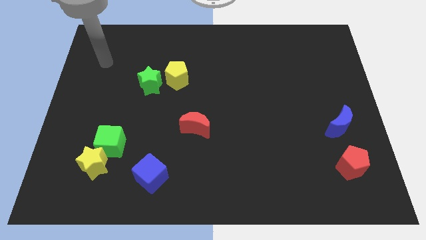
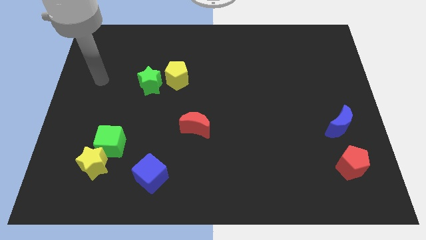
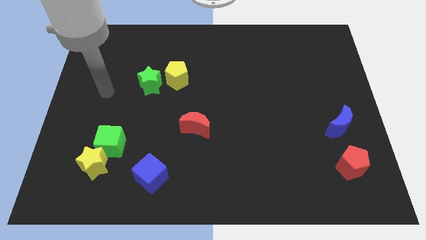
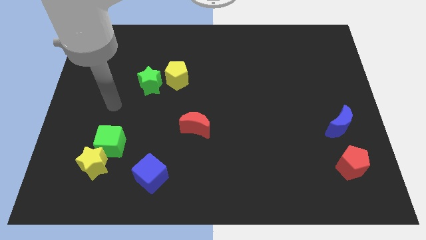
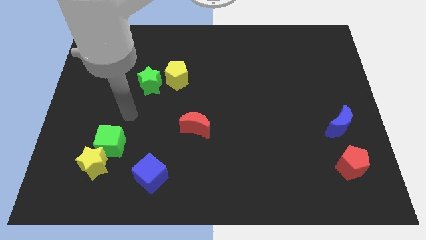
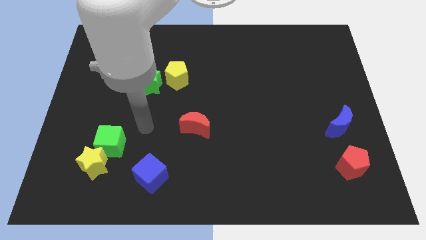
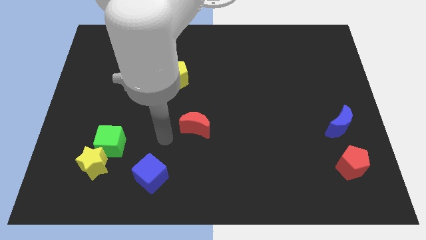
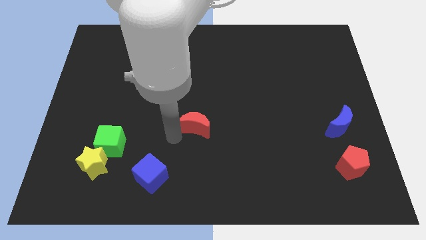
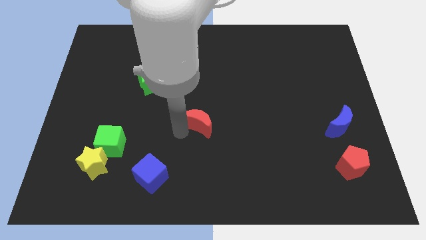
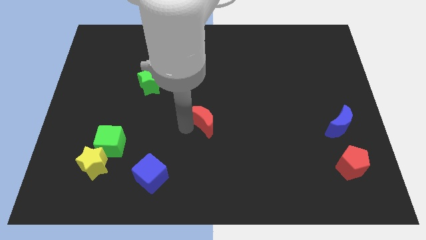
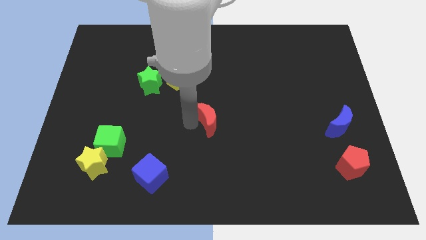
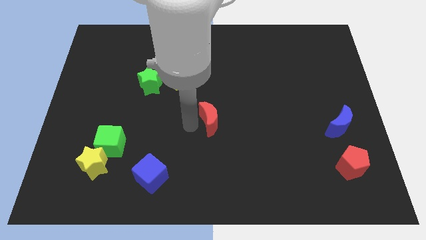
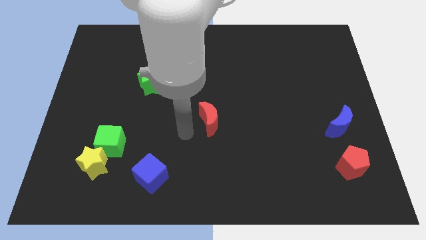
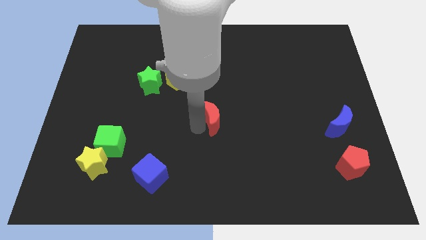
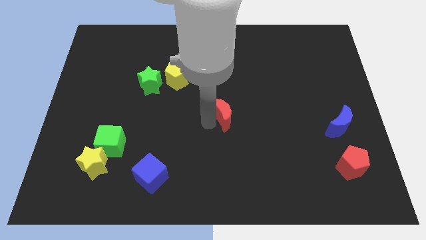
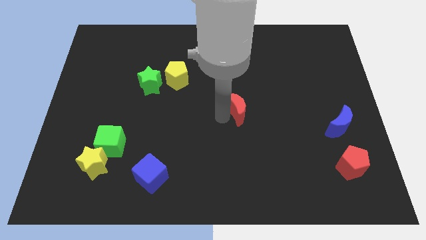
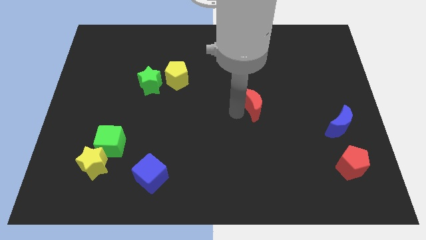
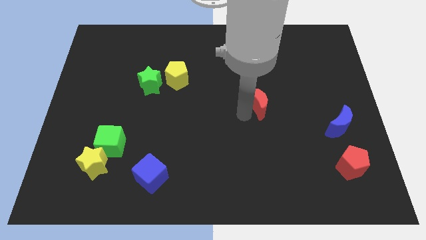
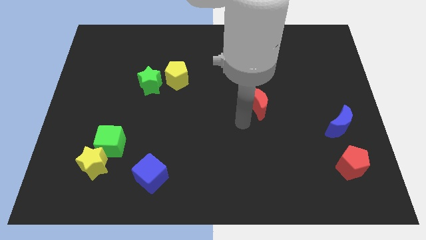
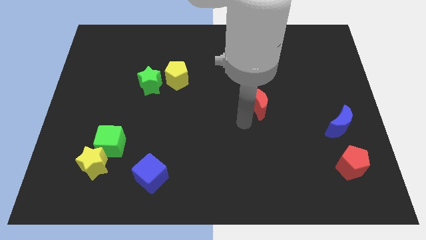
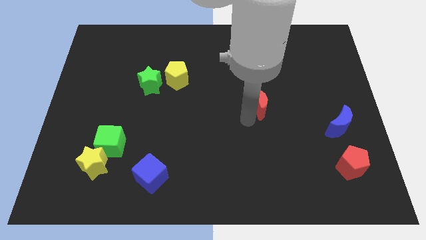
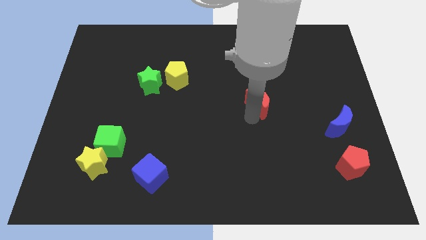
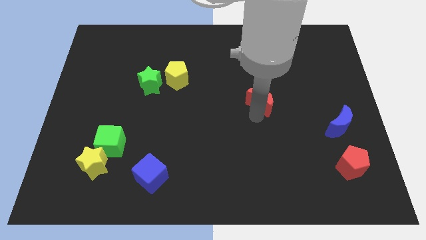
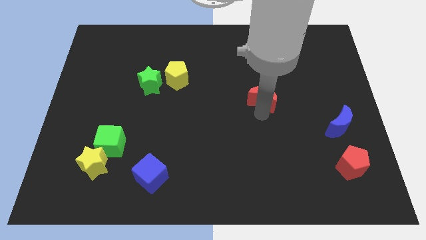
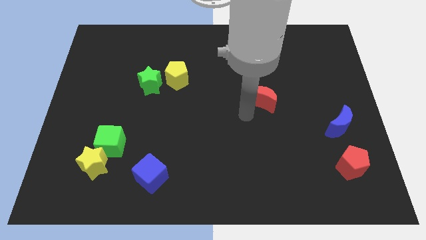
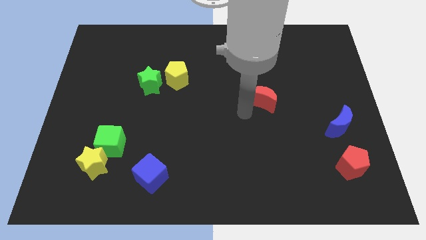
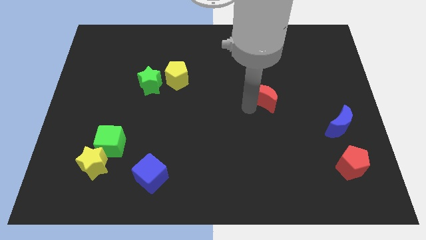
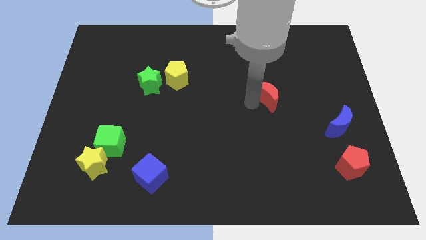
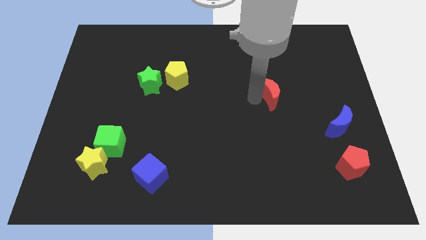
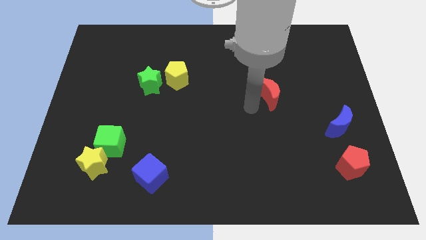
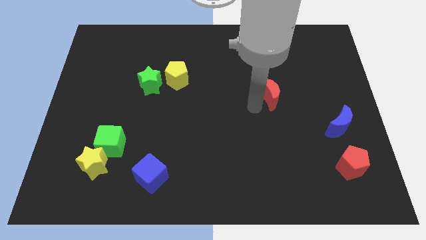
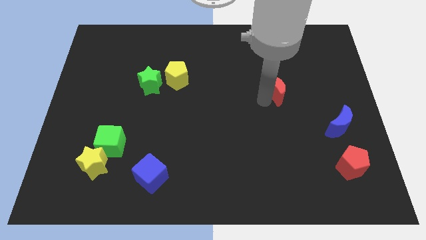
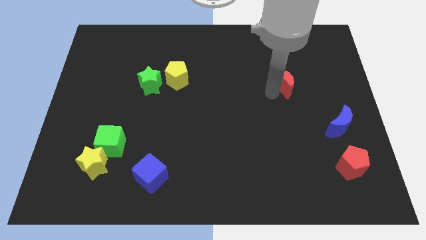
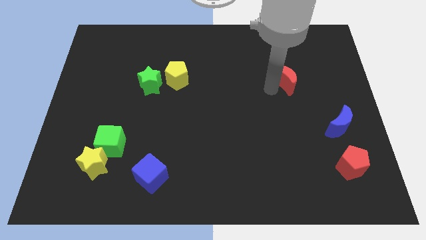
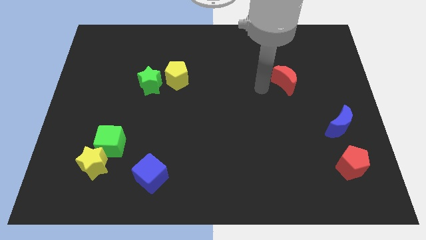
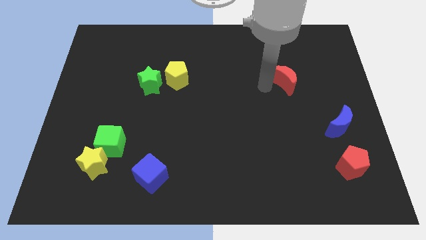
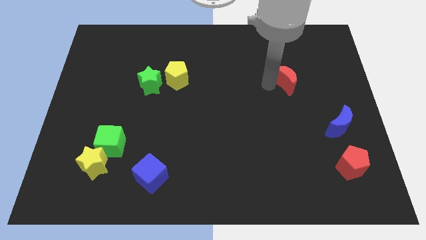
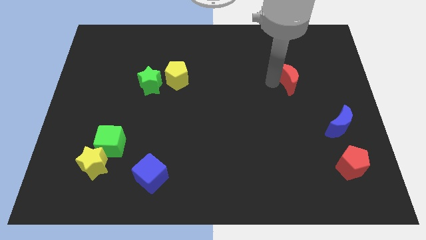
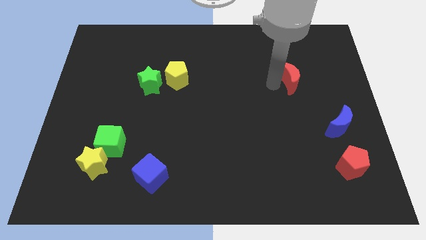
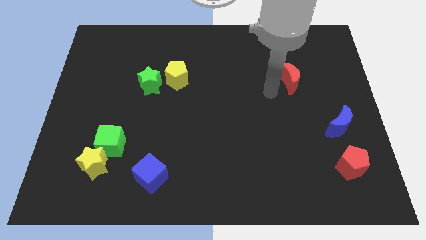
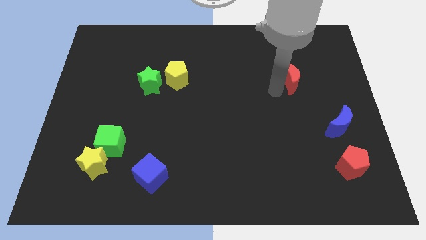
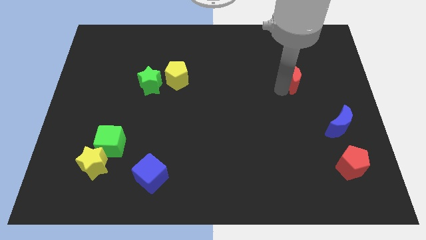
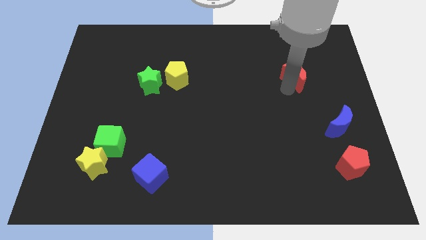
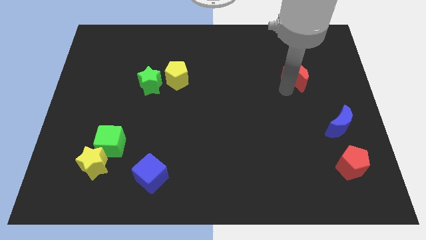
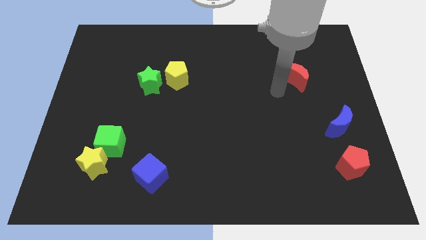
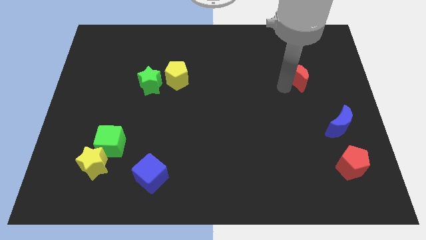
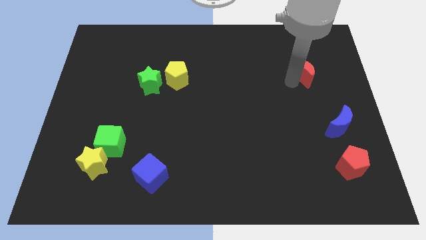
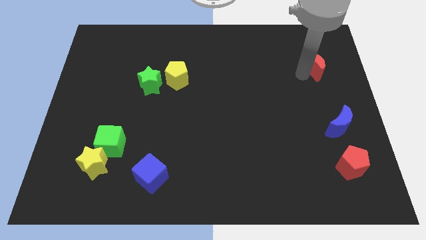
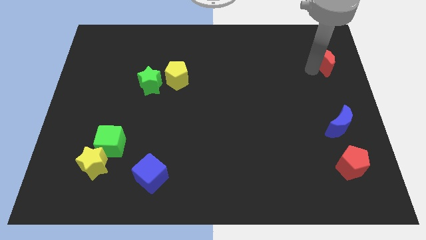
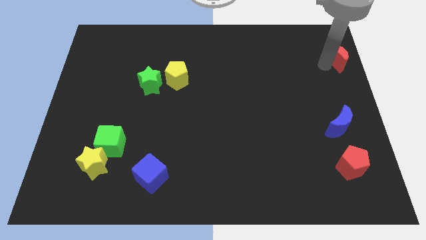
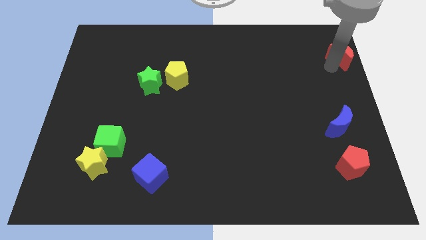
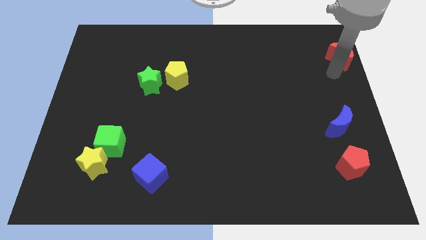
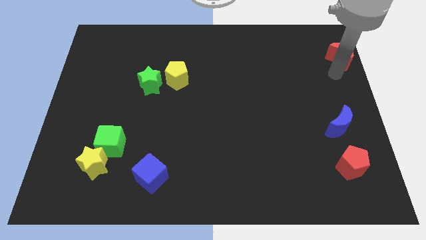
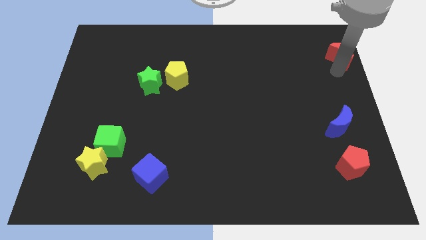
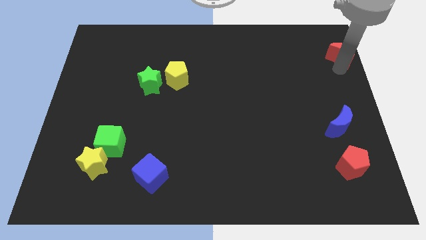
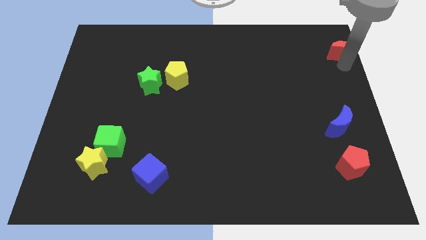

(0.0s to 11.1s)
move the red moon to the top right corner
